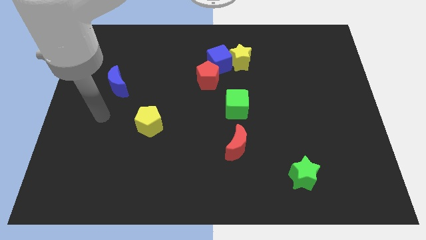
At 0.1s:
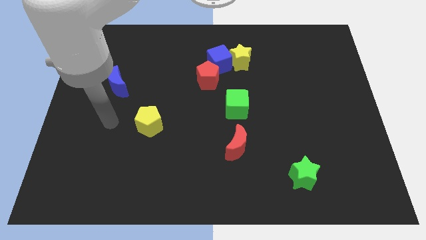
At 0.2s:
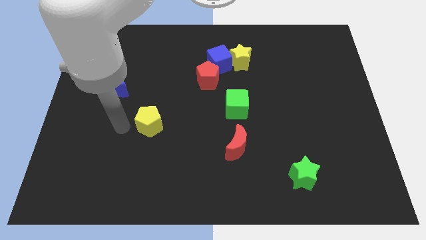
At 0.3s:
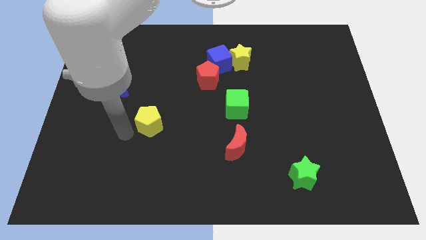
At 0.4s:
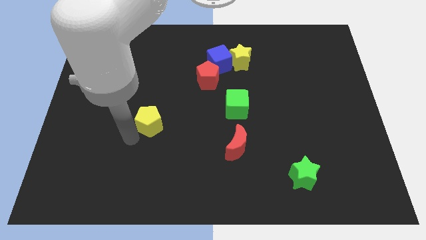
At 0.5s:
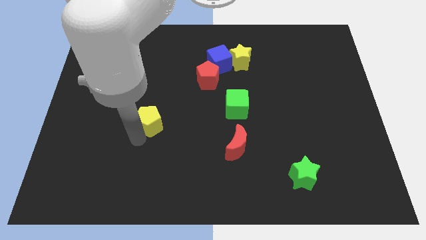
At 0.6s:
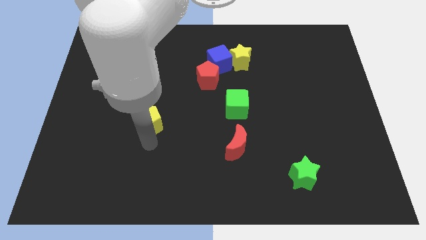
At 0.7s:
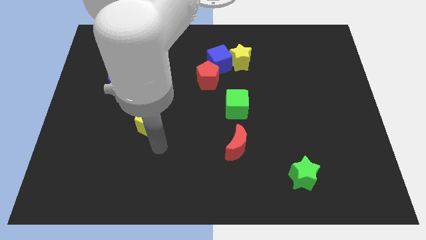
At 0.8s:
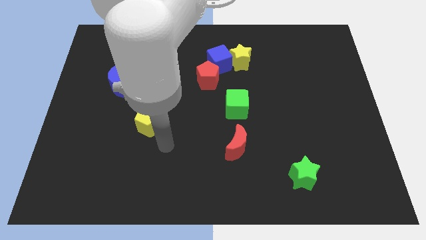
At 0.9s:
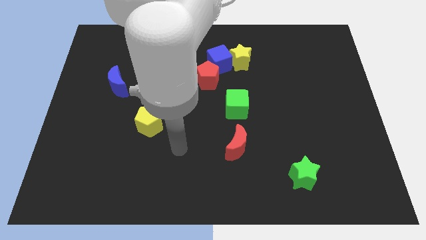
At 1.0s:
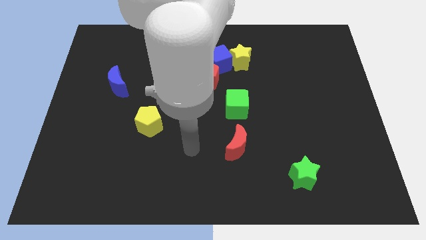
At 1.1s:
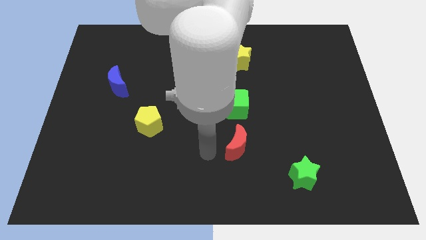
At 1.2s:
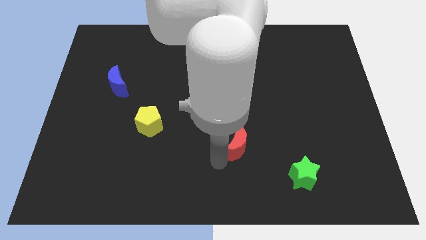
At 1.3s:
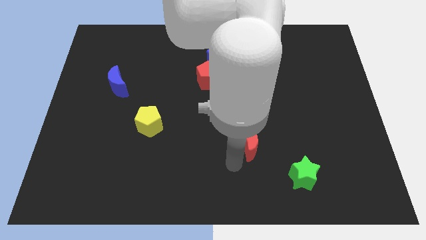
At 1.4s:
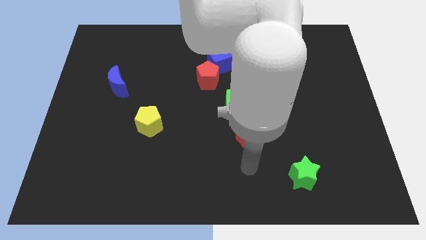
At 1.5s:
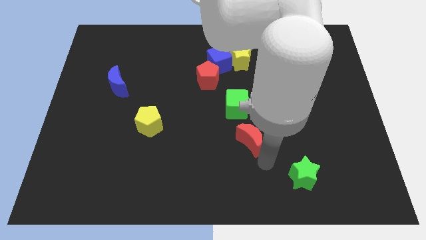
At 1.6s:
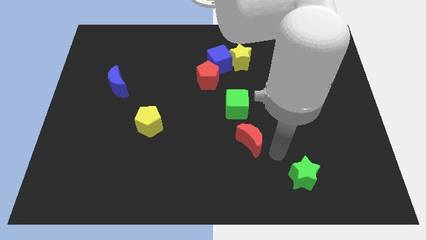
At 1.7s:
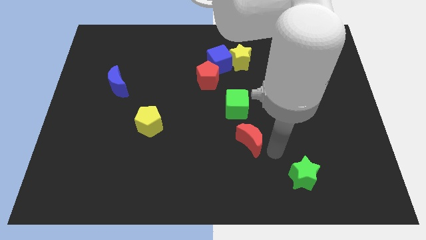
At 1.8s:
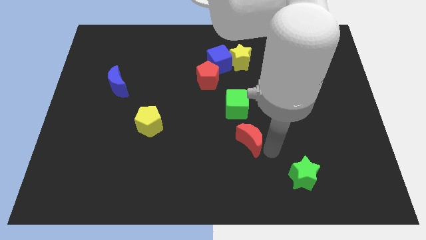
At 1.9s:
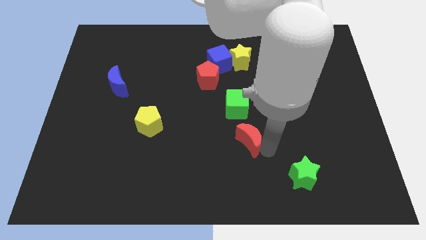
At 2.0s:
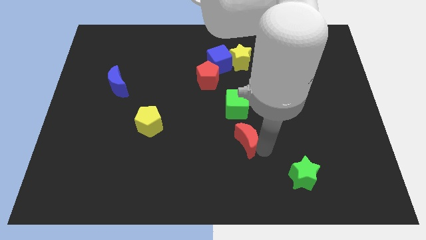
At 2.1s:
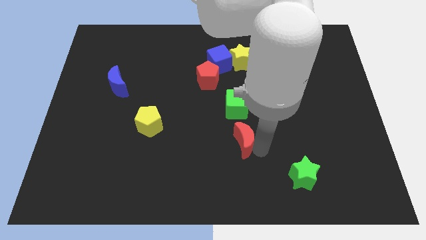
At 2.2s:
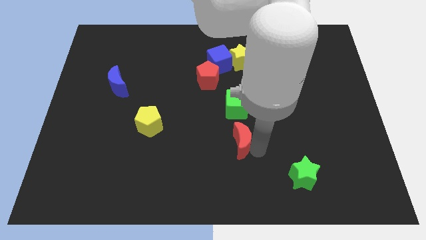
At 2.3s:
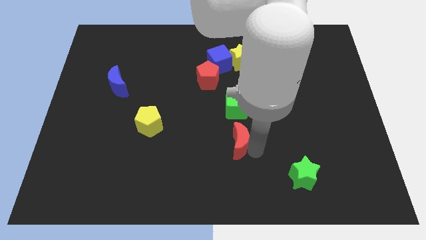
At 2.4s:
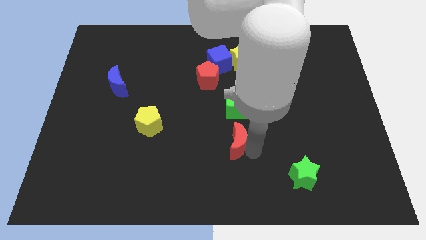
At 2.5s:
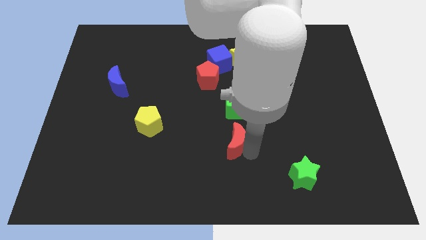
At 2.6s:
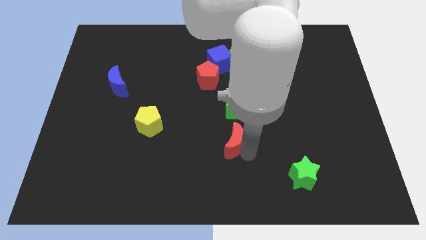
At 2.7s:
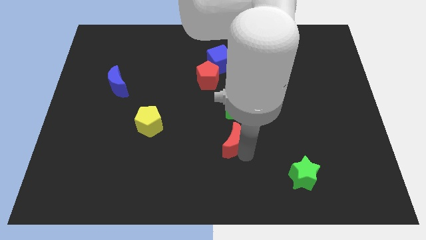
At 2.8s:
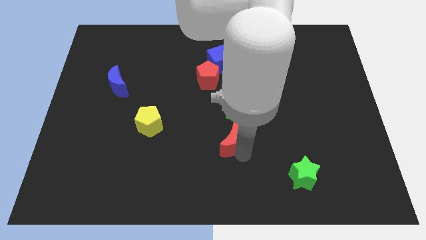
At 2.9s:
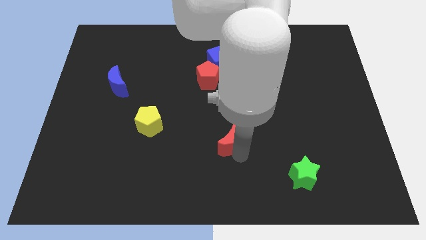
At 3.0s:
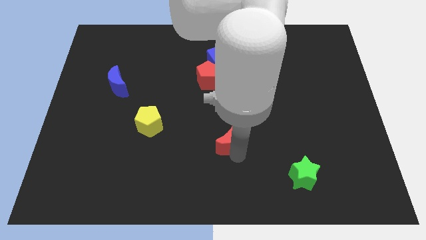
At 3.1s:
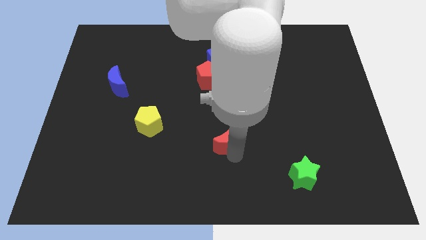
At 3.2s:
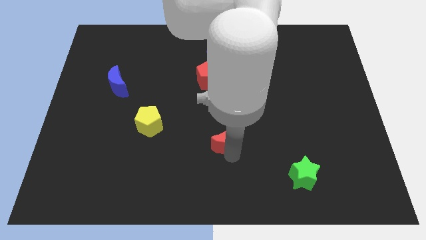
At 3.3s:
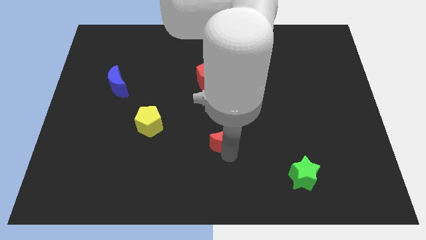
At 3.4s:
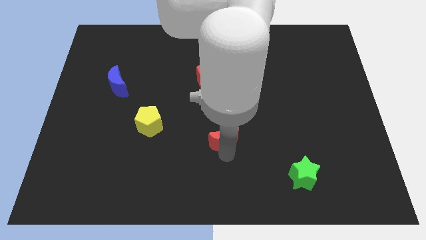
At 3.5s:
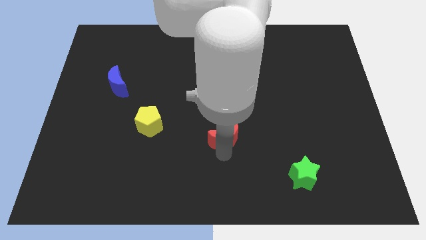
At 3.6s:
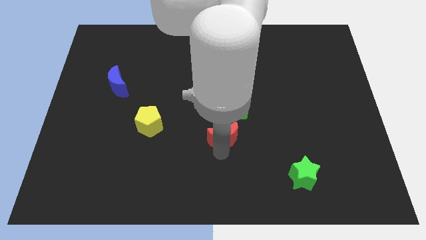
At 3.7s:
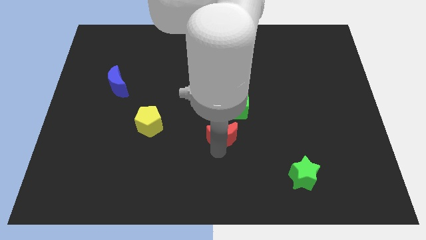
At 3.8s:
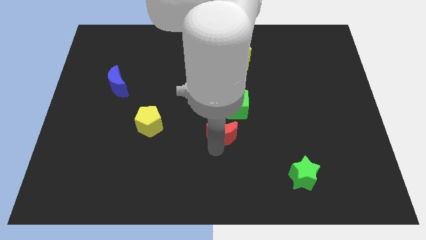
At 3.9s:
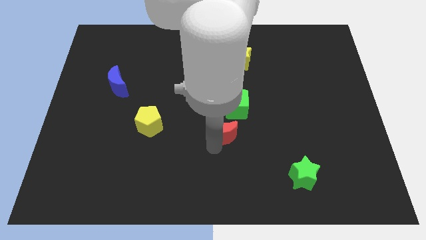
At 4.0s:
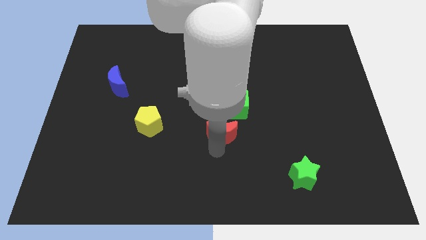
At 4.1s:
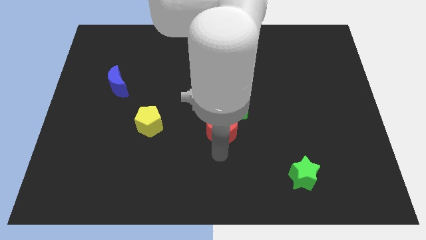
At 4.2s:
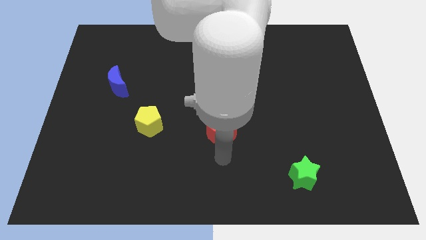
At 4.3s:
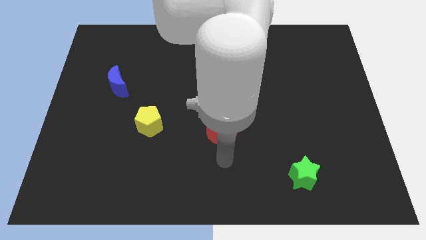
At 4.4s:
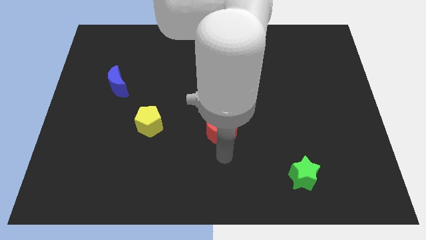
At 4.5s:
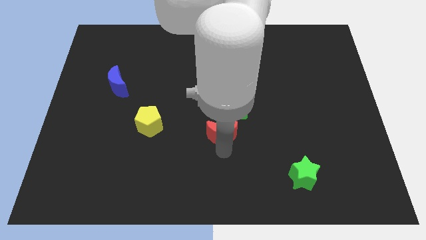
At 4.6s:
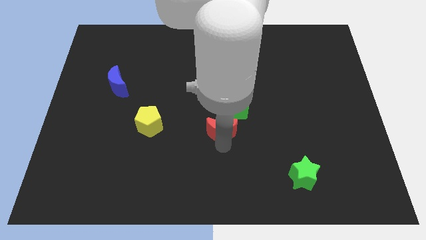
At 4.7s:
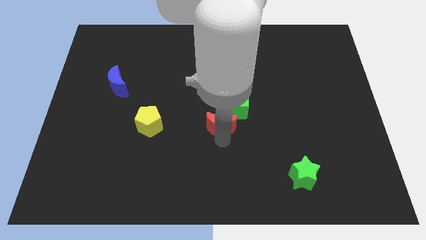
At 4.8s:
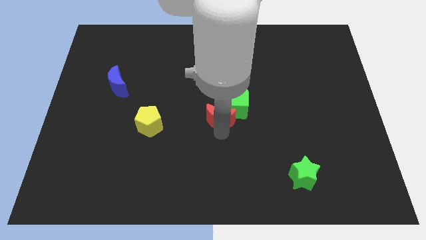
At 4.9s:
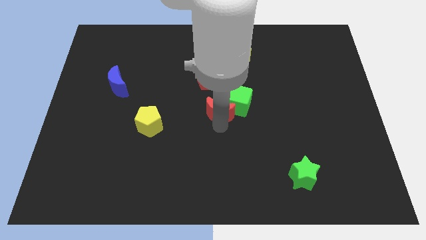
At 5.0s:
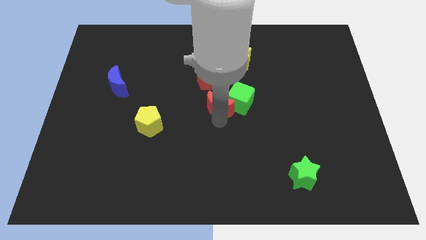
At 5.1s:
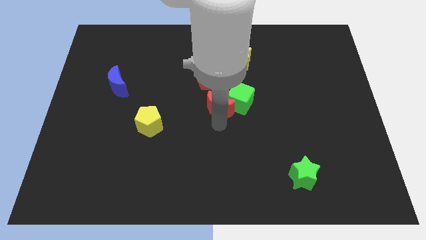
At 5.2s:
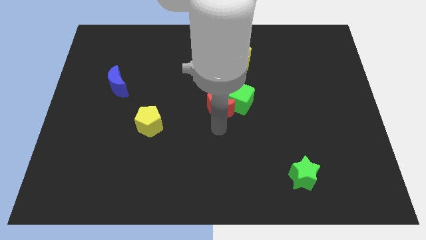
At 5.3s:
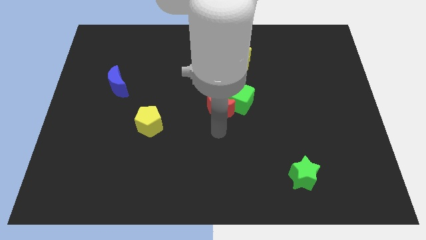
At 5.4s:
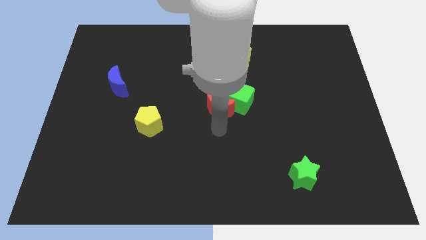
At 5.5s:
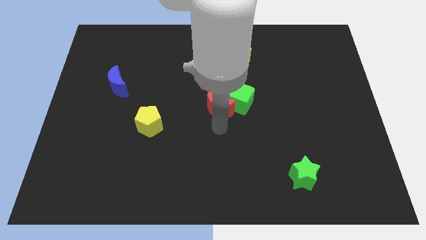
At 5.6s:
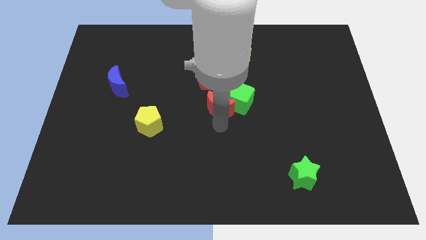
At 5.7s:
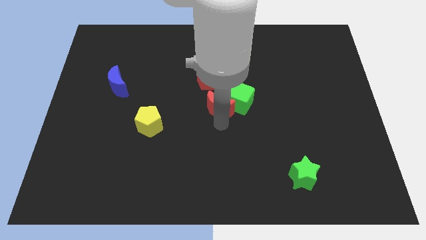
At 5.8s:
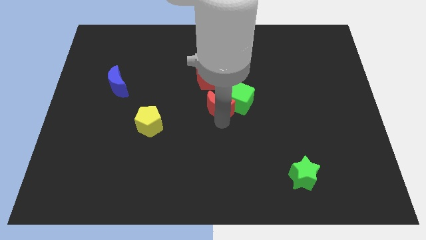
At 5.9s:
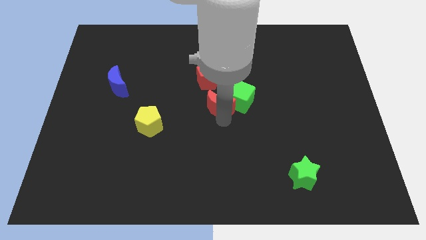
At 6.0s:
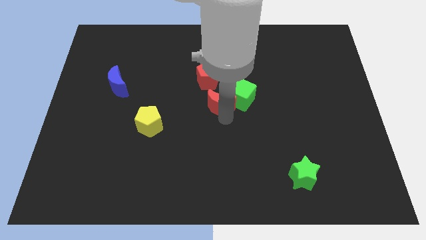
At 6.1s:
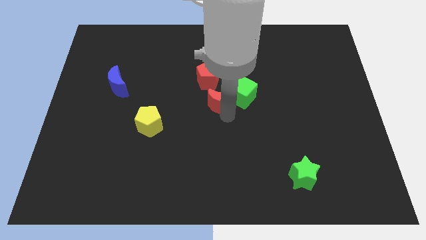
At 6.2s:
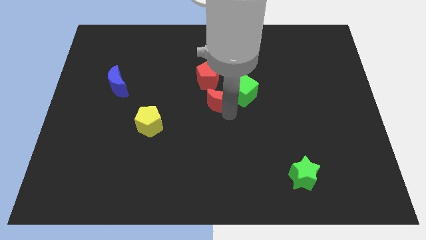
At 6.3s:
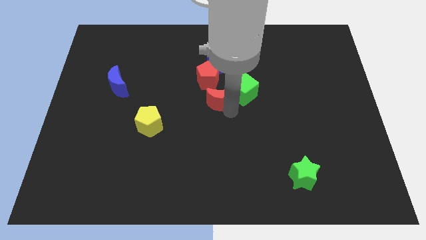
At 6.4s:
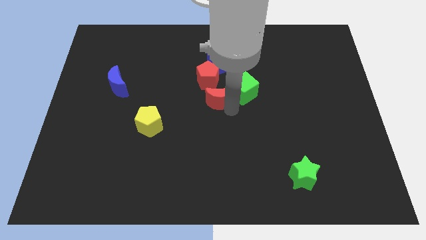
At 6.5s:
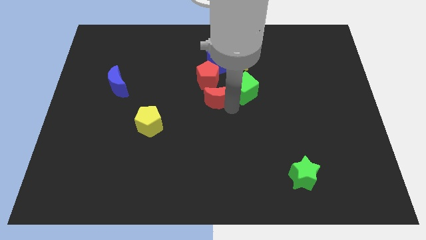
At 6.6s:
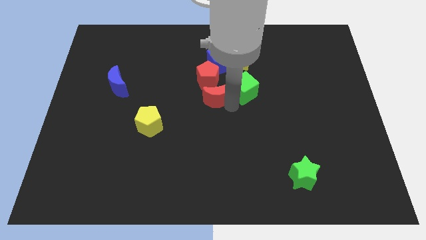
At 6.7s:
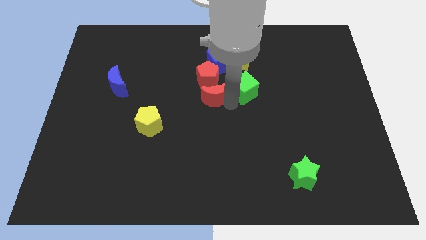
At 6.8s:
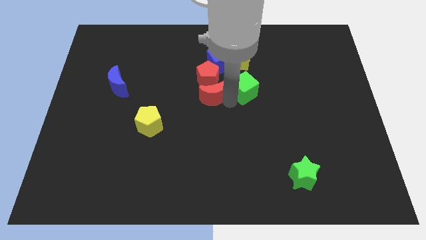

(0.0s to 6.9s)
push the red moon to the red pentagon

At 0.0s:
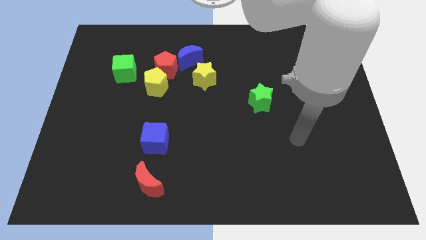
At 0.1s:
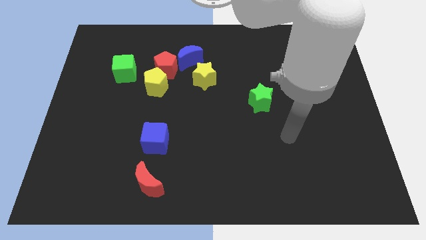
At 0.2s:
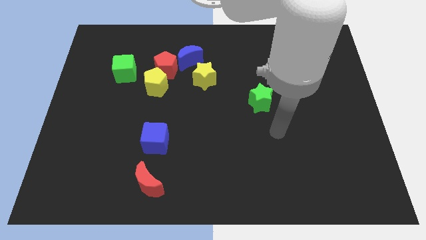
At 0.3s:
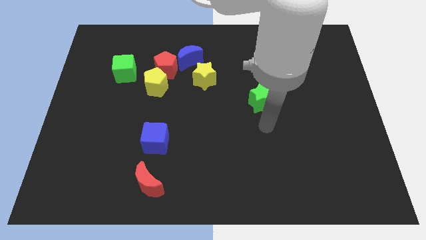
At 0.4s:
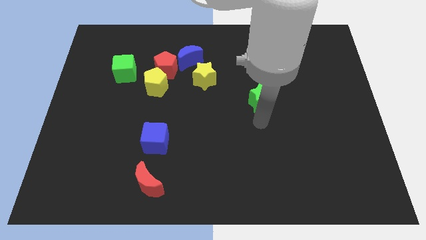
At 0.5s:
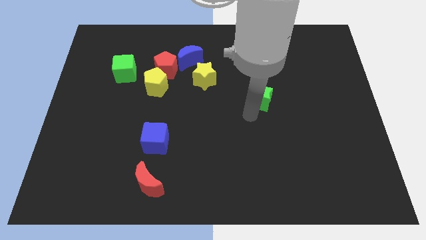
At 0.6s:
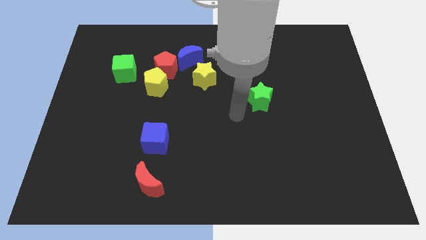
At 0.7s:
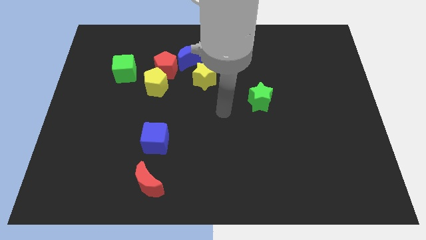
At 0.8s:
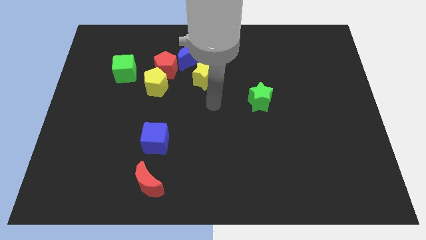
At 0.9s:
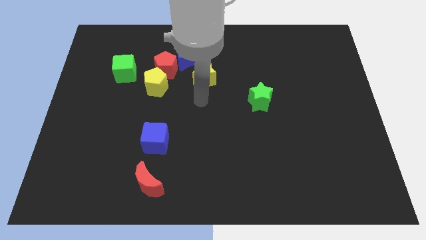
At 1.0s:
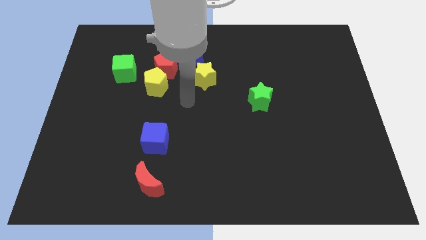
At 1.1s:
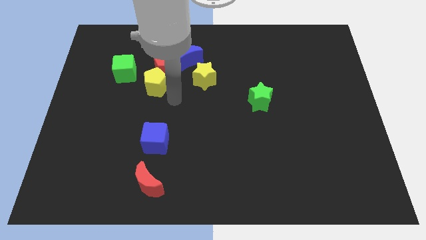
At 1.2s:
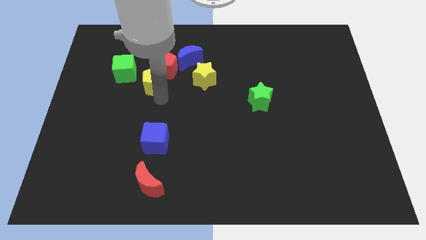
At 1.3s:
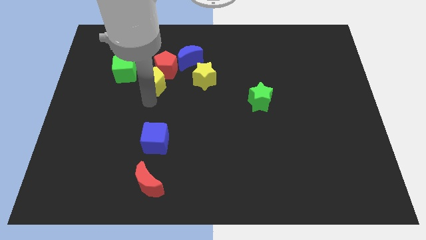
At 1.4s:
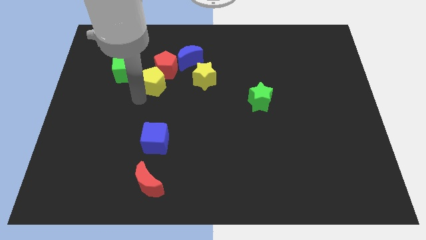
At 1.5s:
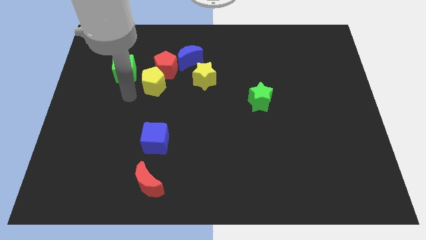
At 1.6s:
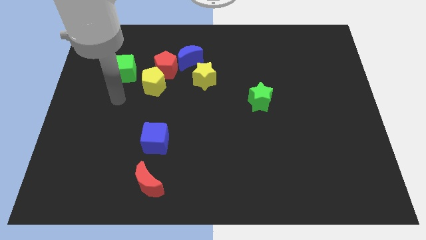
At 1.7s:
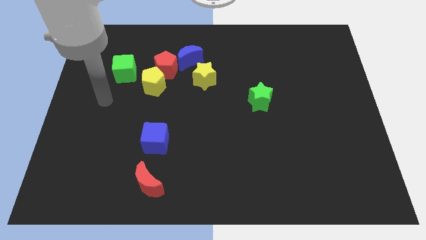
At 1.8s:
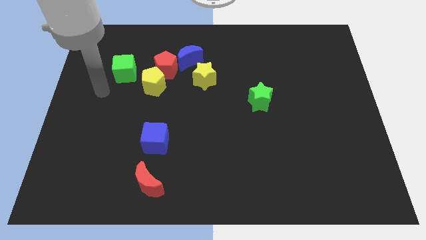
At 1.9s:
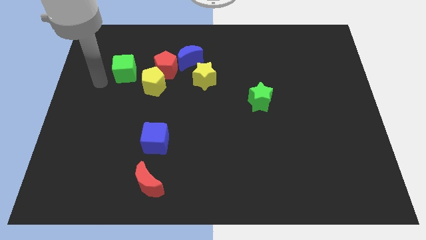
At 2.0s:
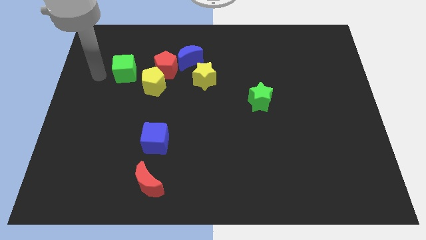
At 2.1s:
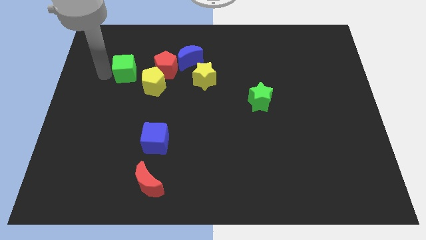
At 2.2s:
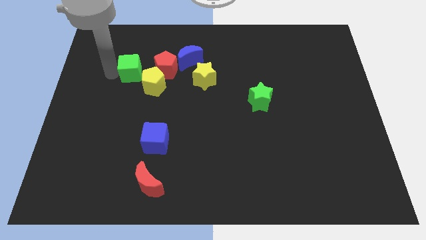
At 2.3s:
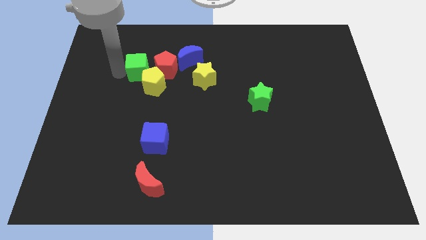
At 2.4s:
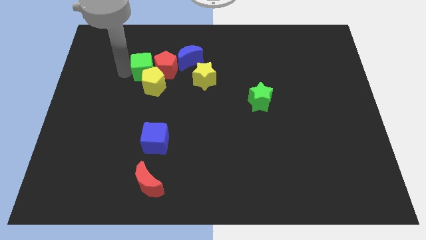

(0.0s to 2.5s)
move the green cube towards the red pentagon
